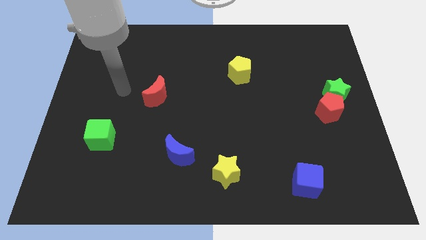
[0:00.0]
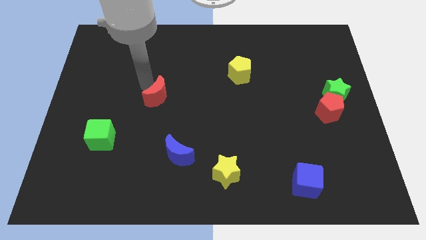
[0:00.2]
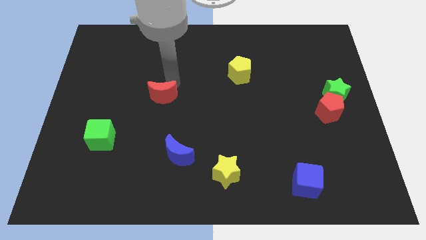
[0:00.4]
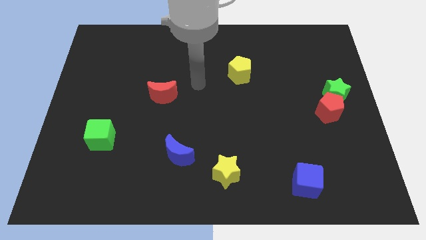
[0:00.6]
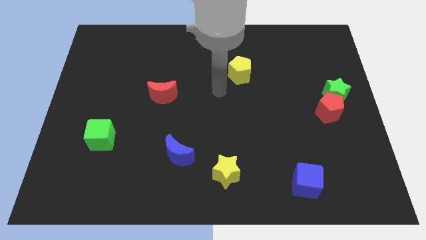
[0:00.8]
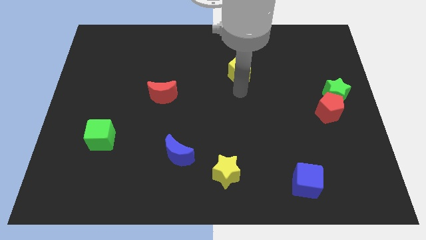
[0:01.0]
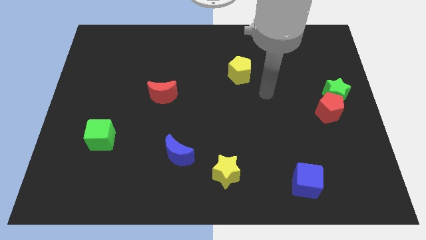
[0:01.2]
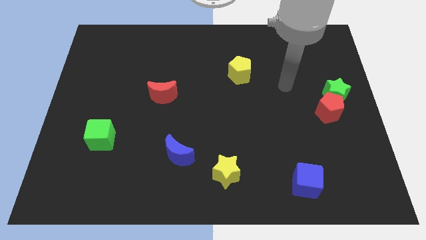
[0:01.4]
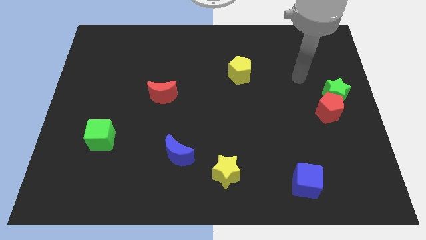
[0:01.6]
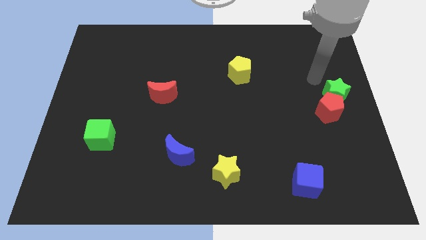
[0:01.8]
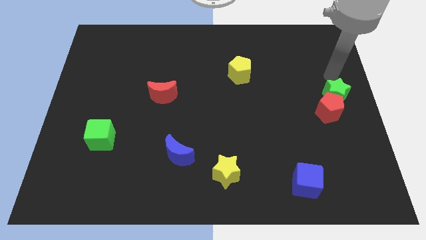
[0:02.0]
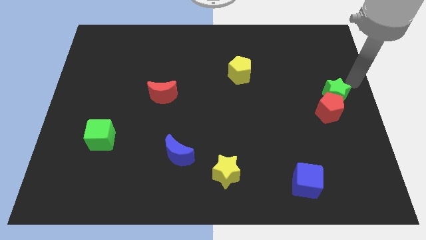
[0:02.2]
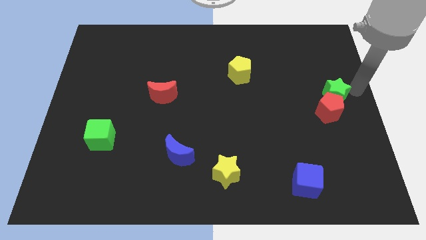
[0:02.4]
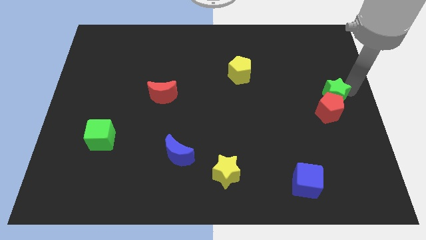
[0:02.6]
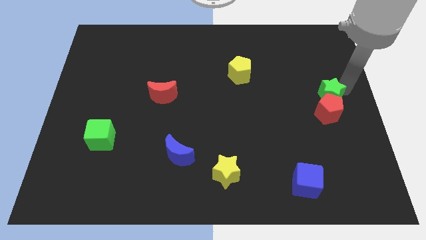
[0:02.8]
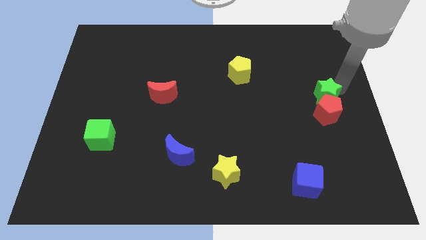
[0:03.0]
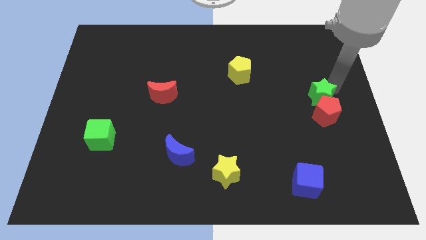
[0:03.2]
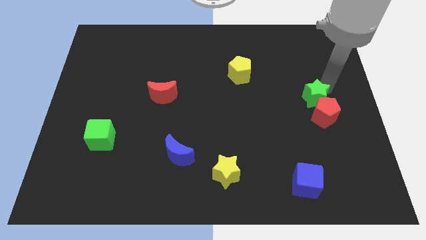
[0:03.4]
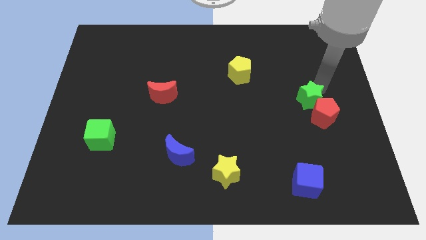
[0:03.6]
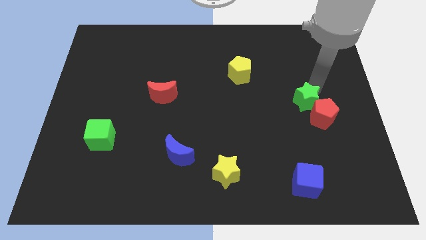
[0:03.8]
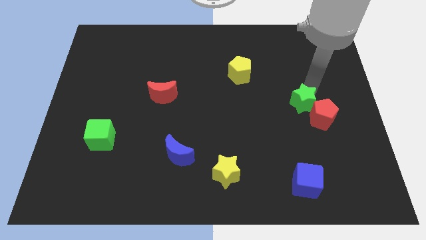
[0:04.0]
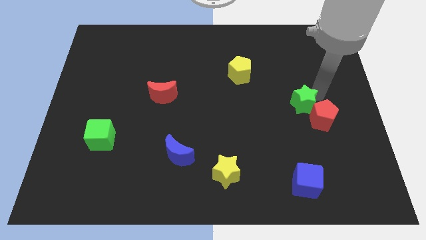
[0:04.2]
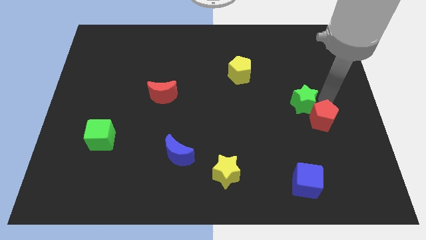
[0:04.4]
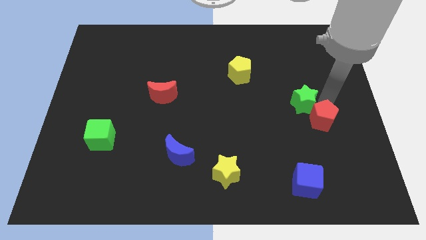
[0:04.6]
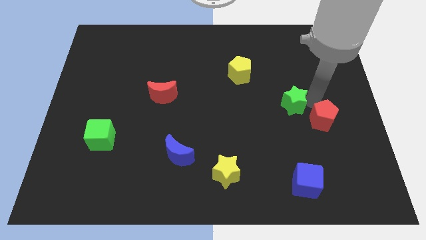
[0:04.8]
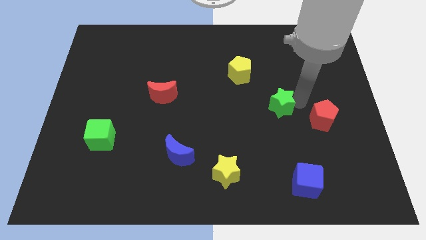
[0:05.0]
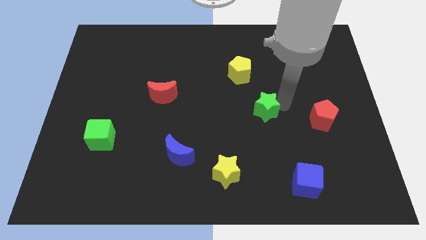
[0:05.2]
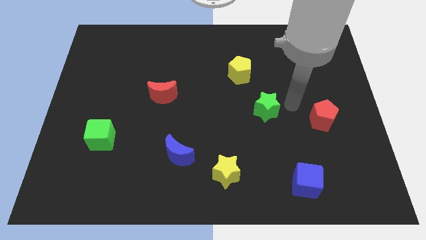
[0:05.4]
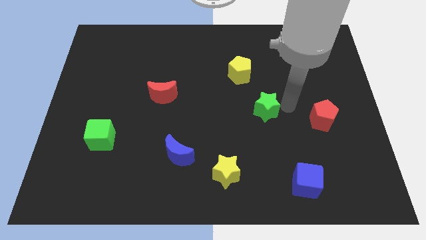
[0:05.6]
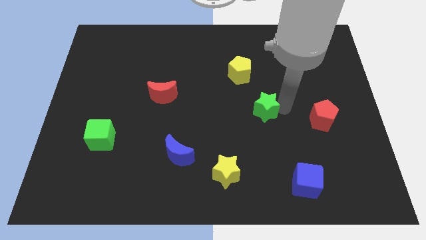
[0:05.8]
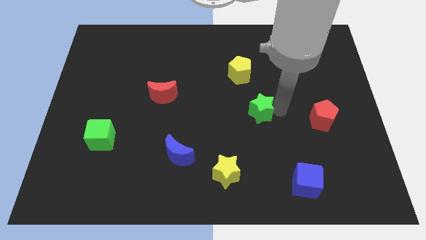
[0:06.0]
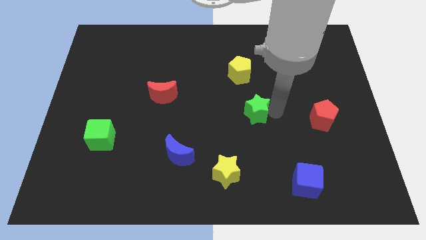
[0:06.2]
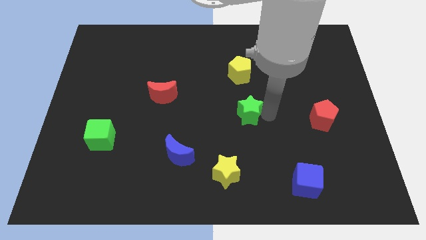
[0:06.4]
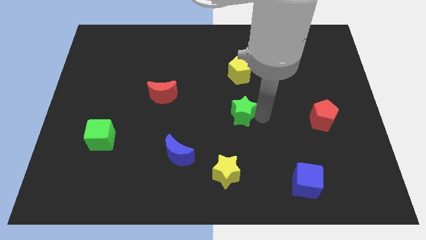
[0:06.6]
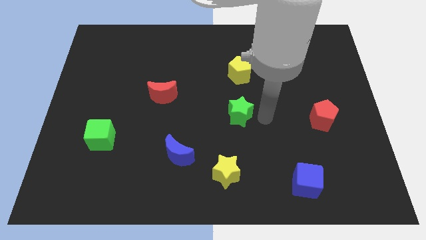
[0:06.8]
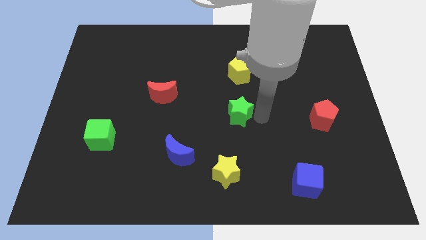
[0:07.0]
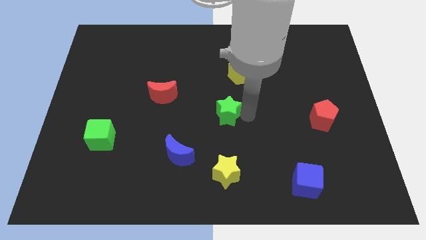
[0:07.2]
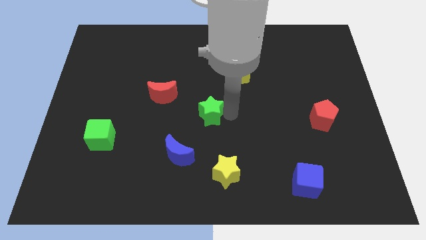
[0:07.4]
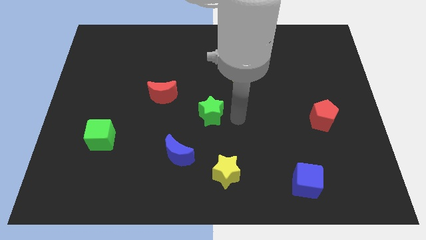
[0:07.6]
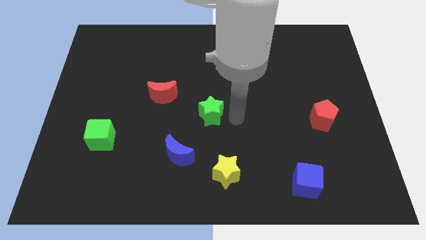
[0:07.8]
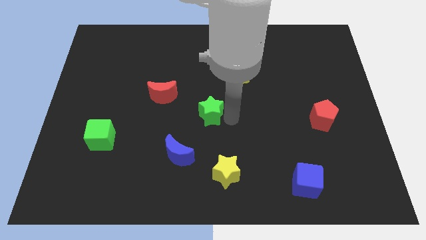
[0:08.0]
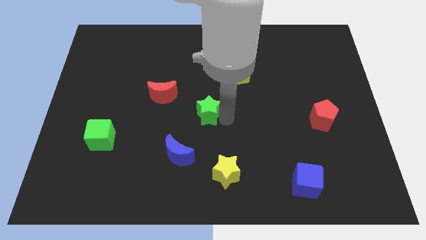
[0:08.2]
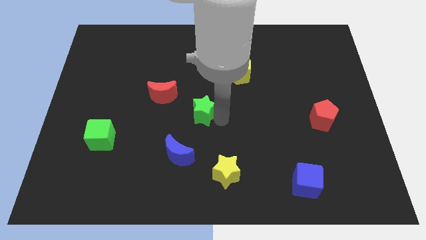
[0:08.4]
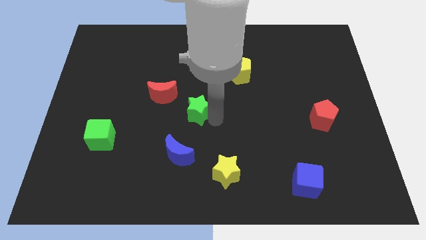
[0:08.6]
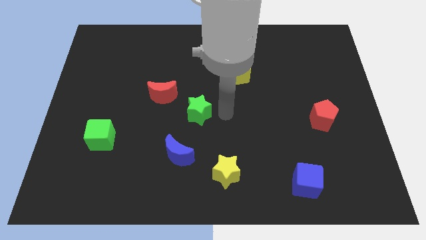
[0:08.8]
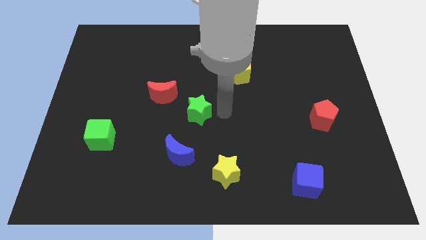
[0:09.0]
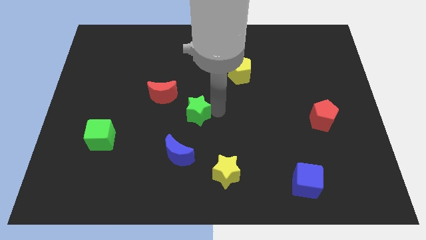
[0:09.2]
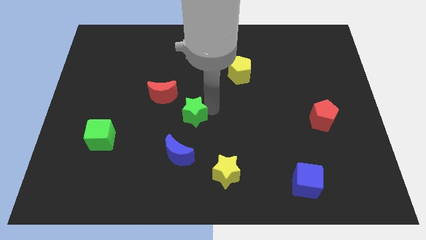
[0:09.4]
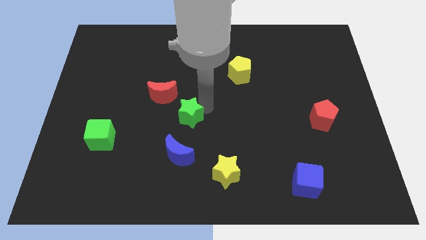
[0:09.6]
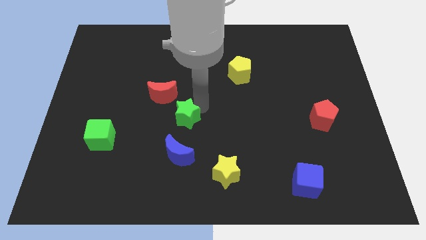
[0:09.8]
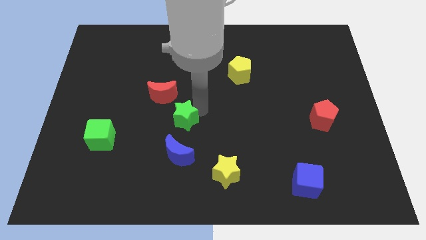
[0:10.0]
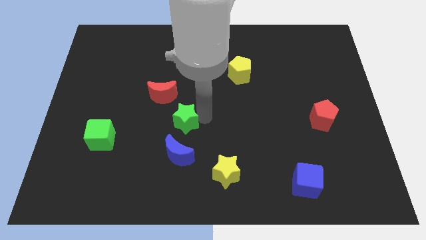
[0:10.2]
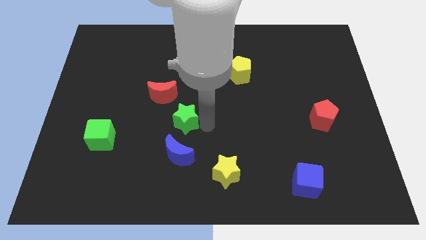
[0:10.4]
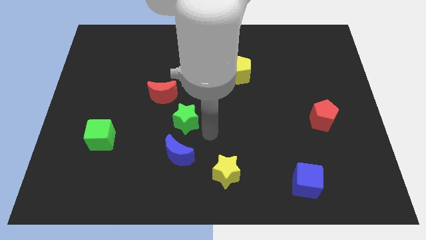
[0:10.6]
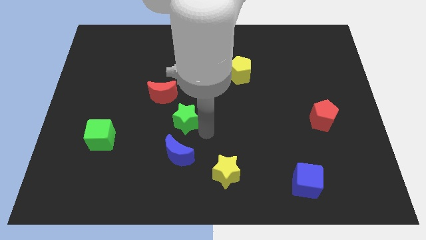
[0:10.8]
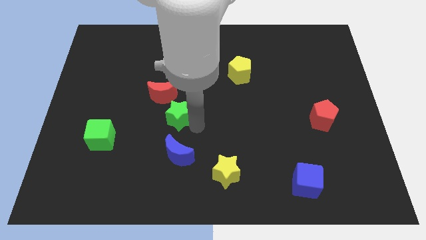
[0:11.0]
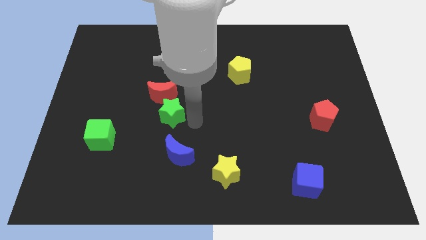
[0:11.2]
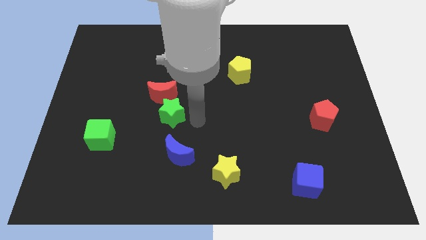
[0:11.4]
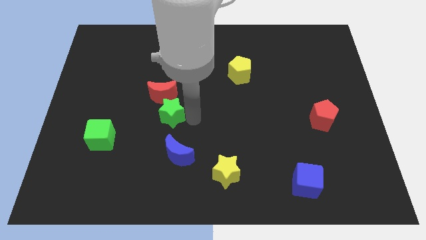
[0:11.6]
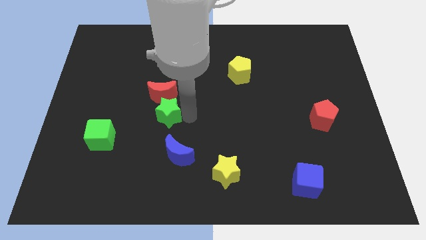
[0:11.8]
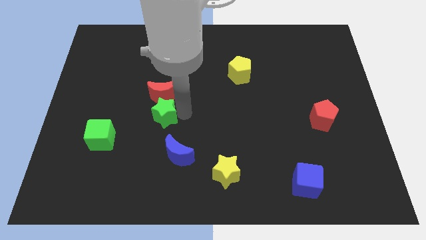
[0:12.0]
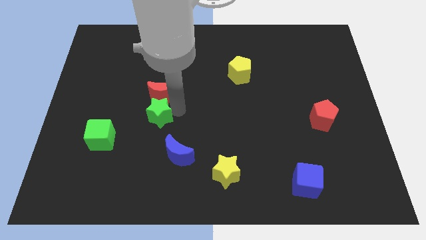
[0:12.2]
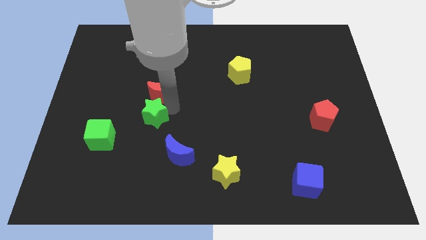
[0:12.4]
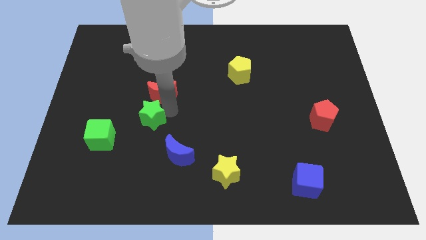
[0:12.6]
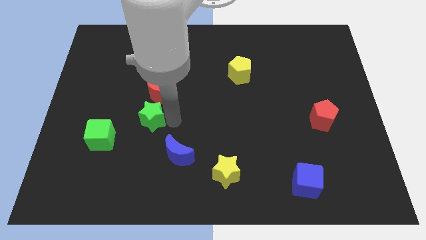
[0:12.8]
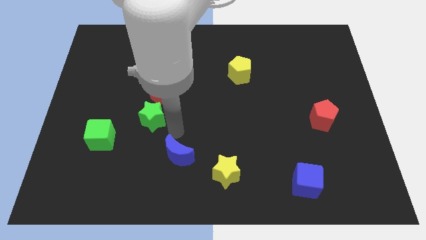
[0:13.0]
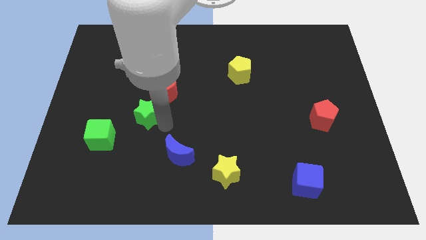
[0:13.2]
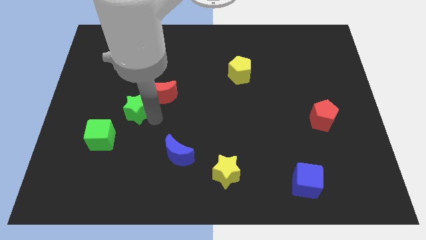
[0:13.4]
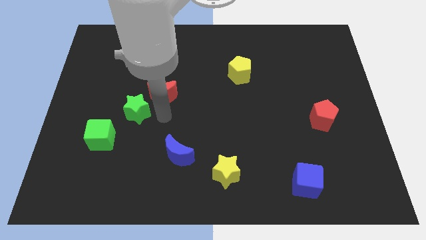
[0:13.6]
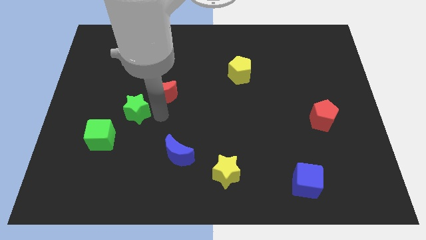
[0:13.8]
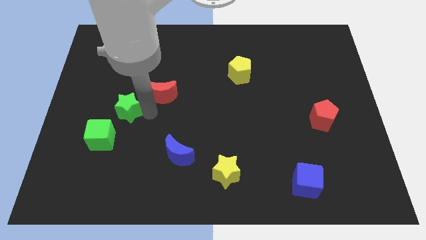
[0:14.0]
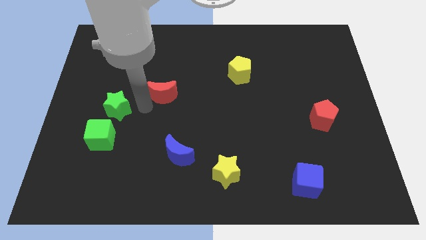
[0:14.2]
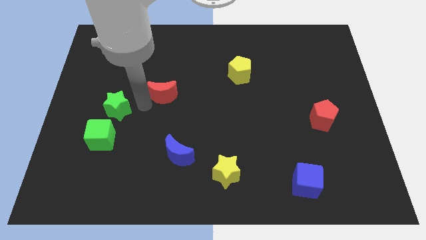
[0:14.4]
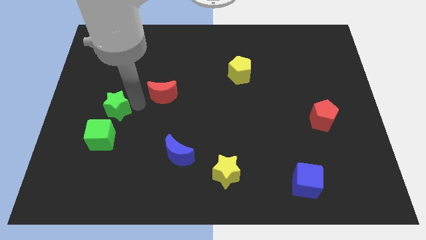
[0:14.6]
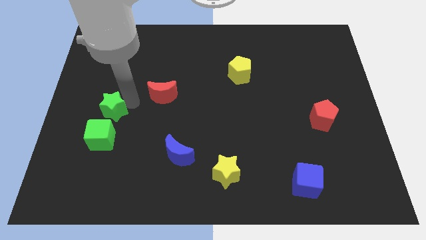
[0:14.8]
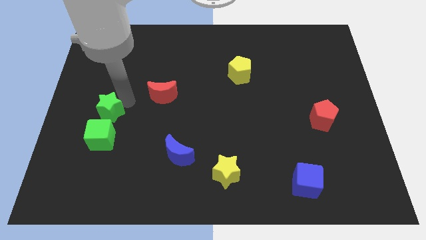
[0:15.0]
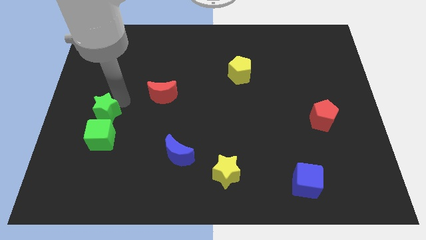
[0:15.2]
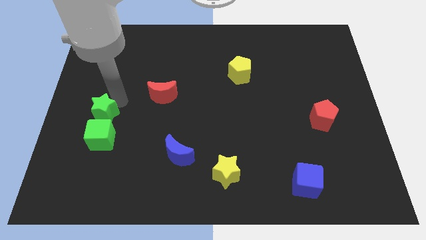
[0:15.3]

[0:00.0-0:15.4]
move the green star to the left side
